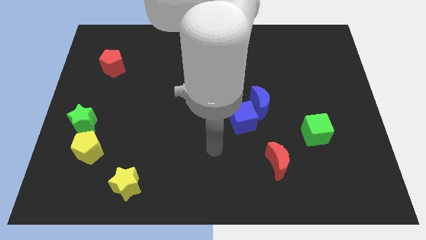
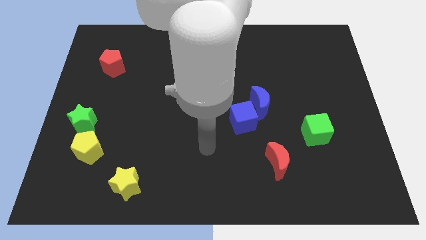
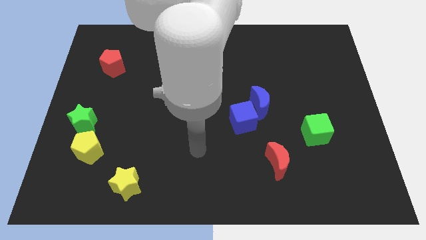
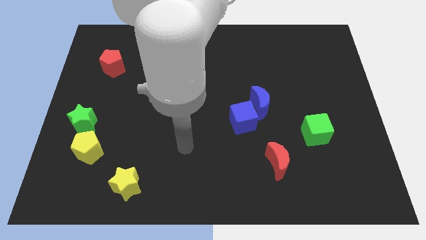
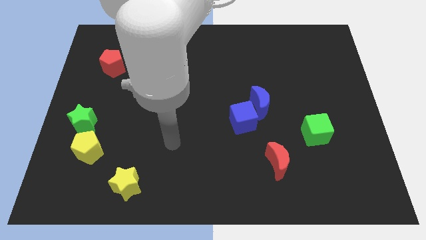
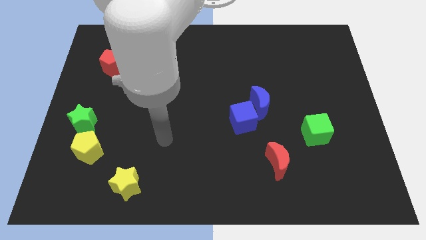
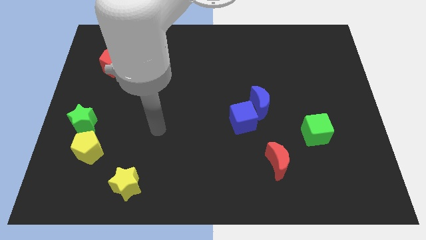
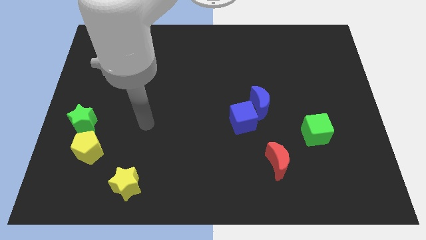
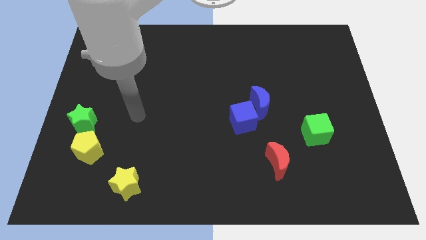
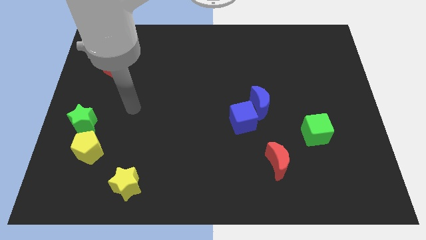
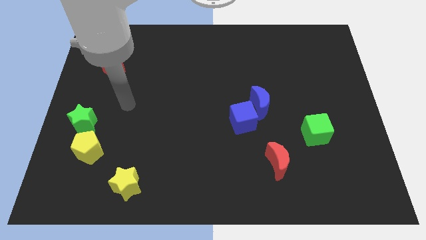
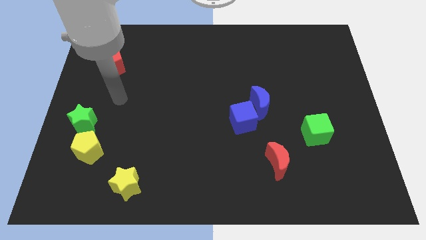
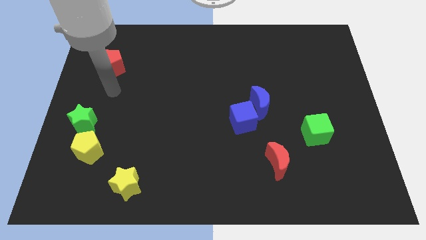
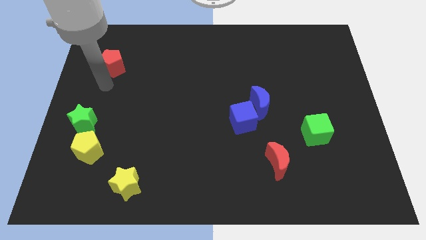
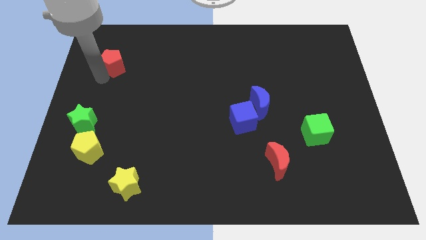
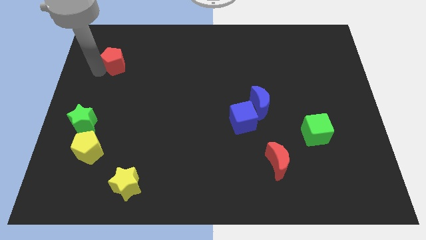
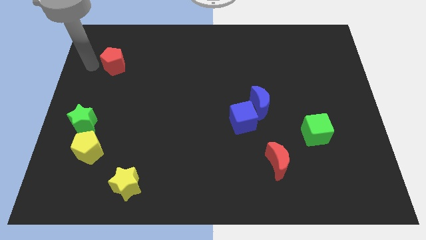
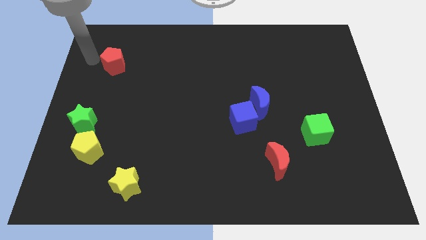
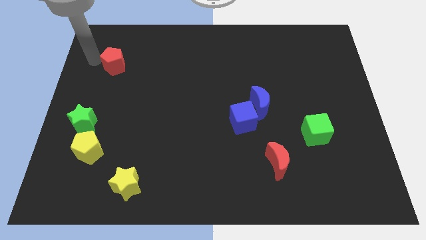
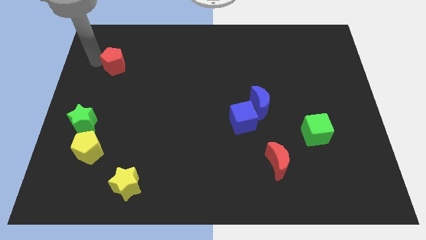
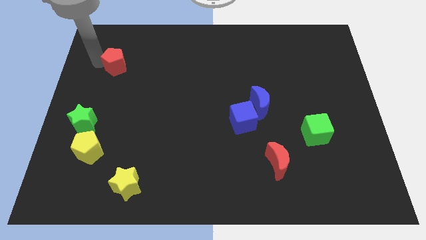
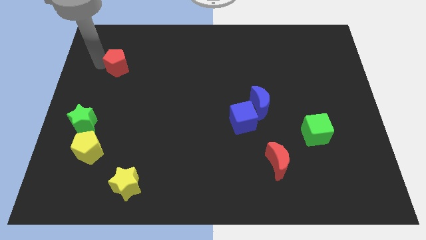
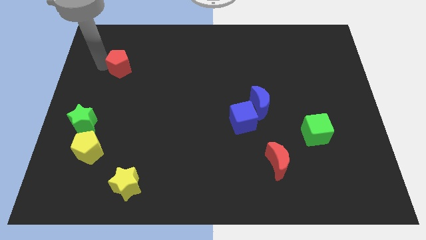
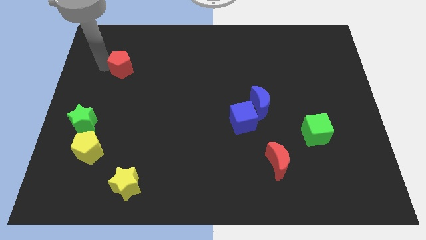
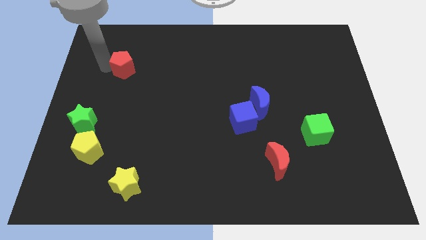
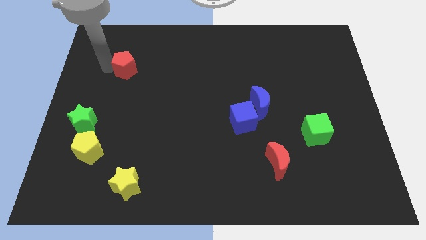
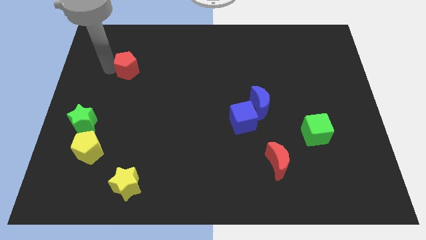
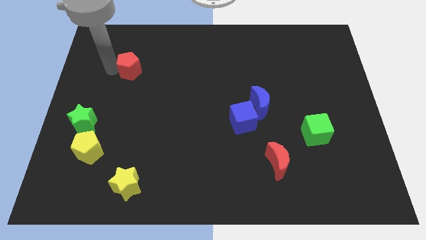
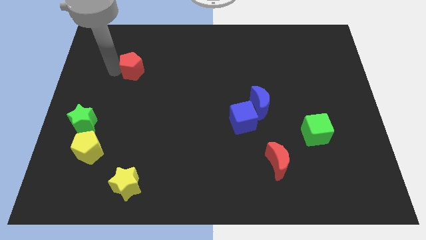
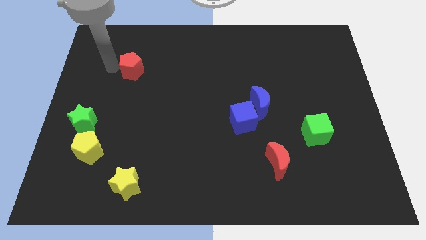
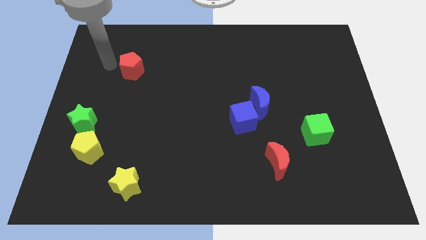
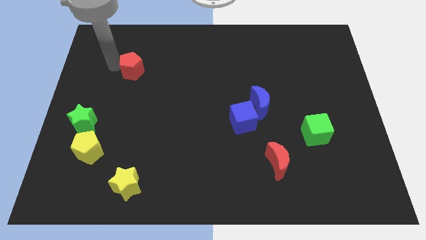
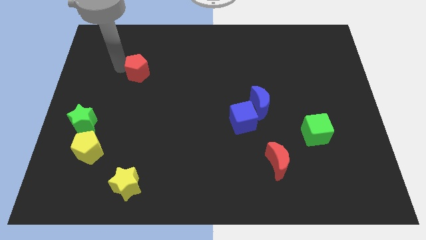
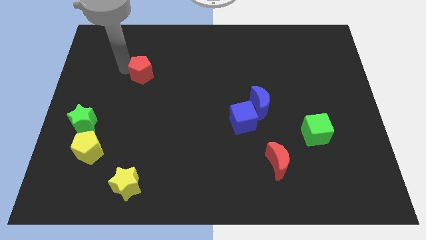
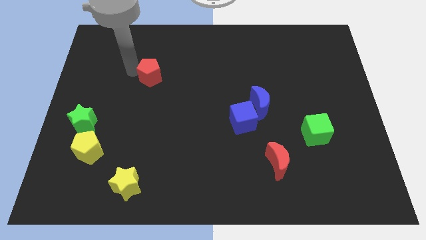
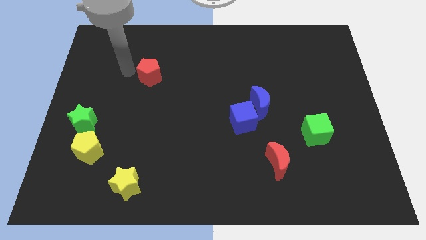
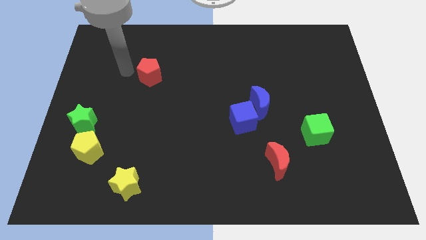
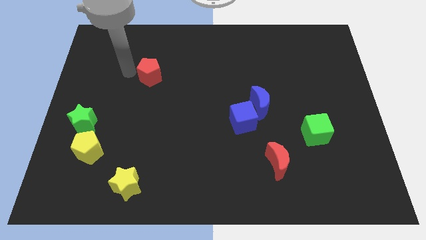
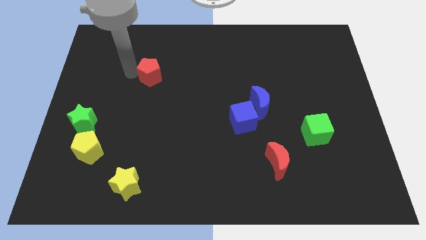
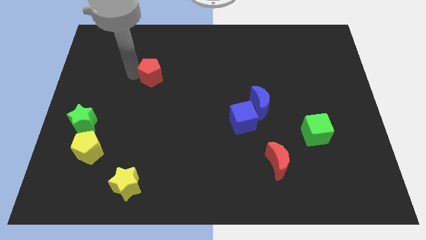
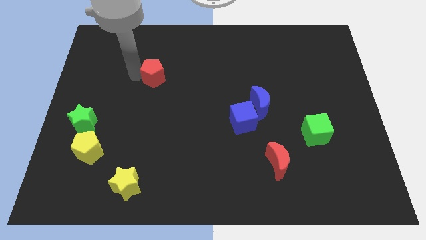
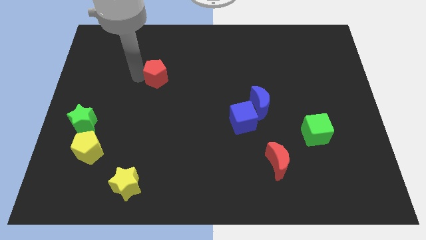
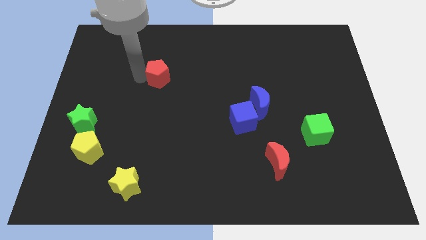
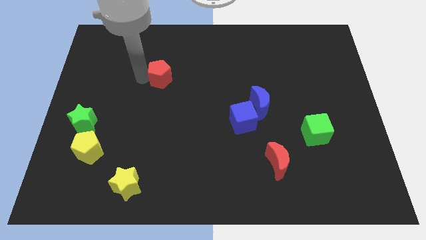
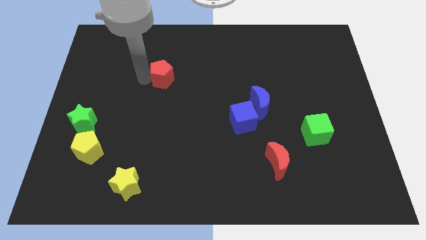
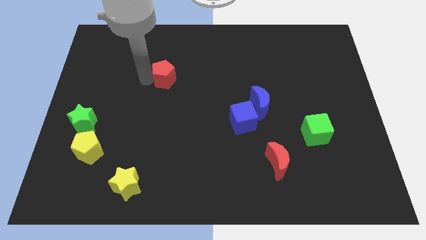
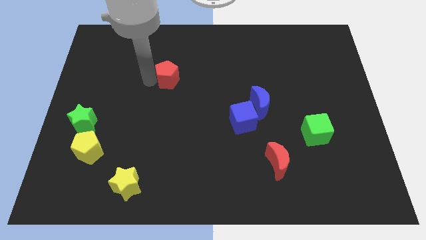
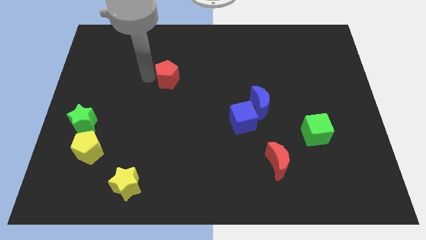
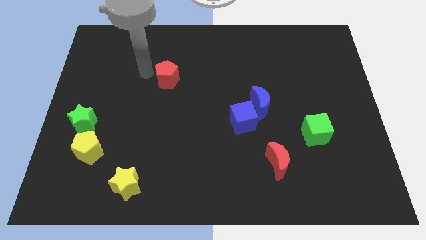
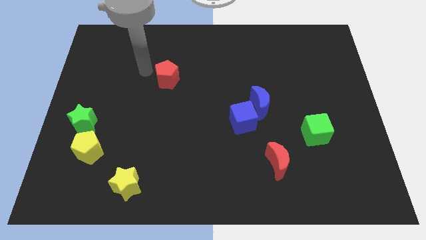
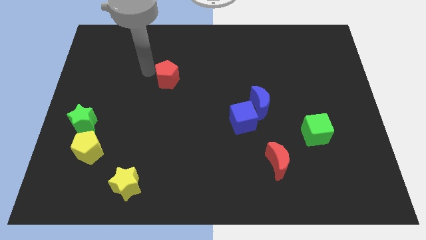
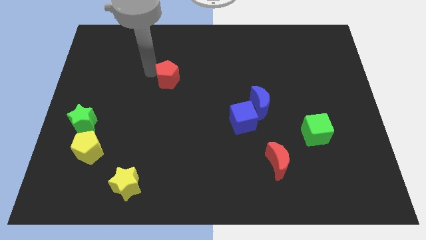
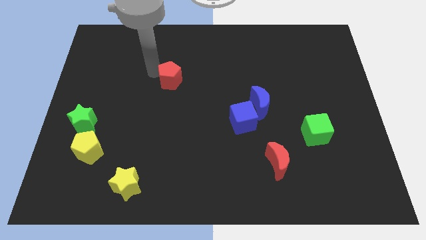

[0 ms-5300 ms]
slide the red pentagon to the center of the board

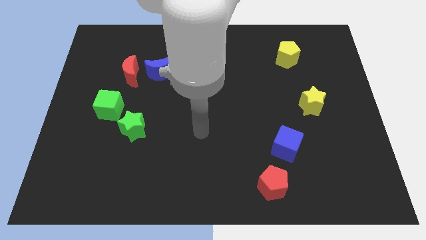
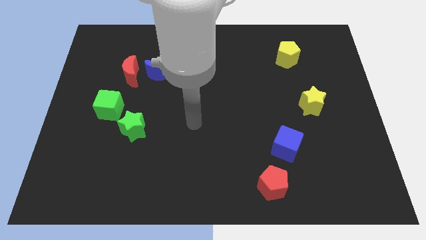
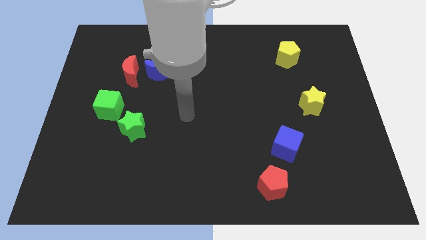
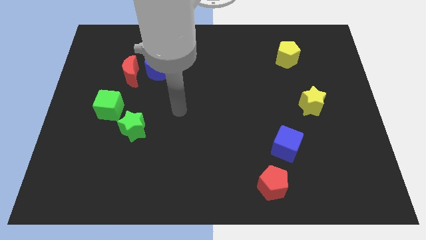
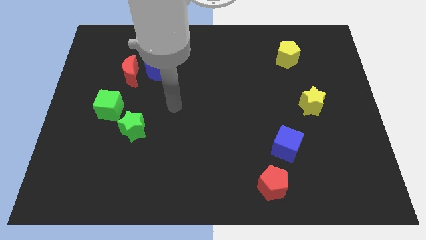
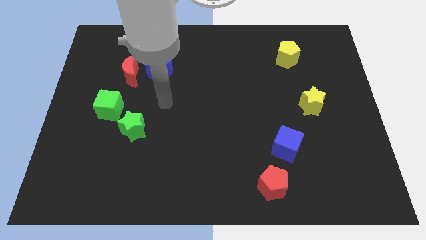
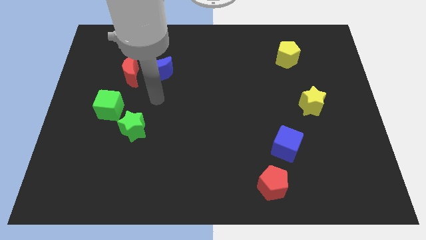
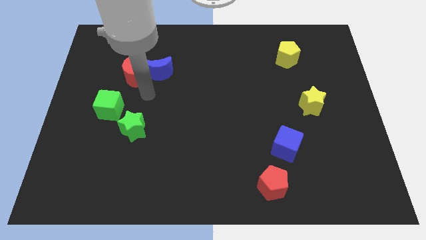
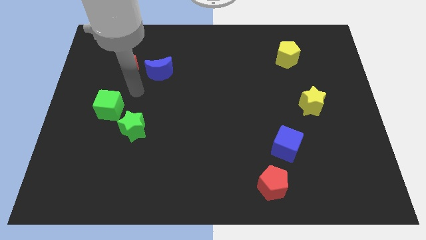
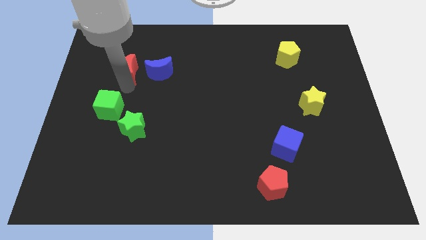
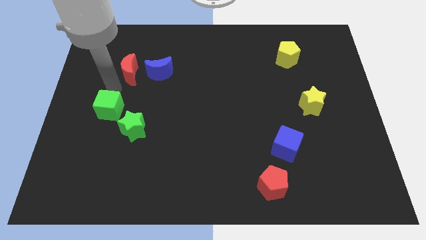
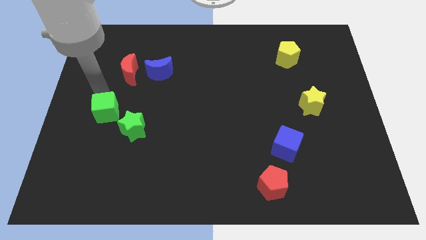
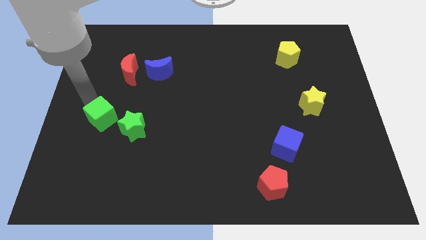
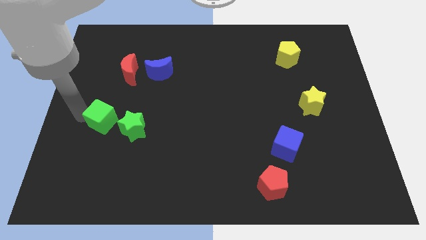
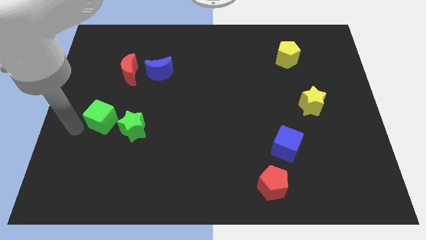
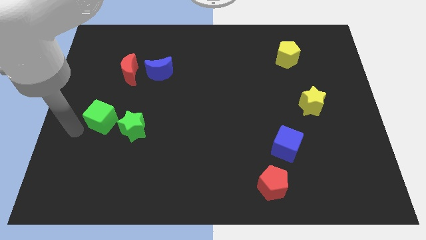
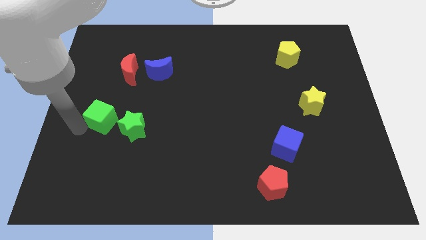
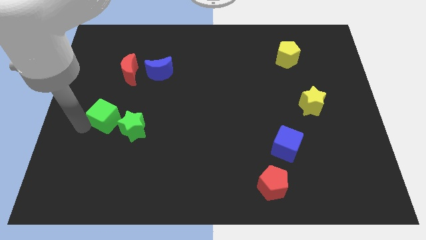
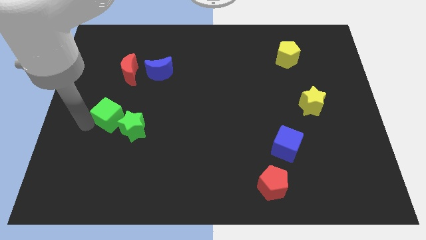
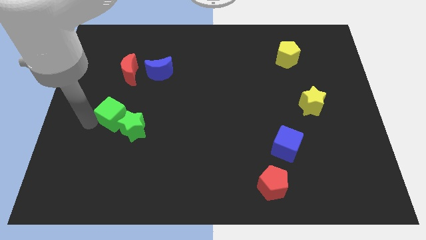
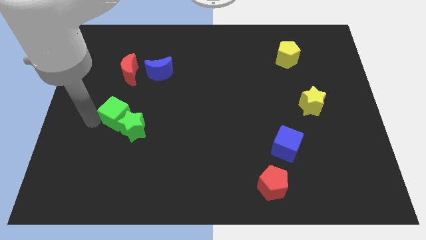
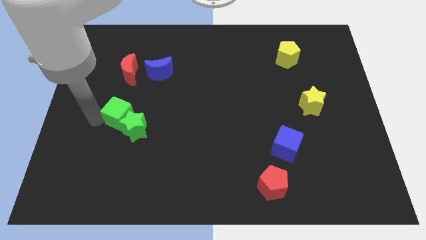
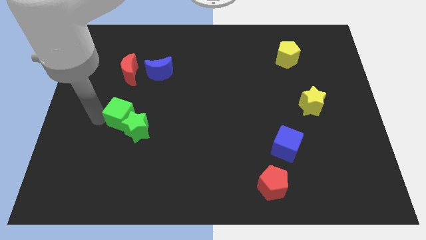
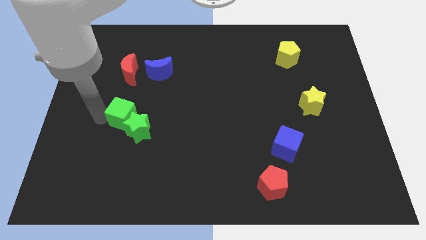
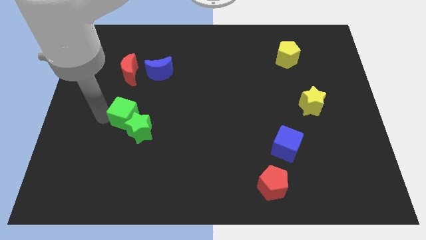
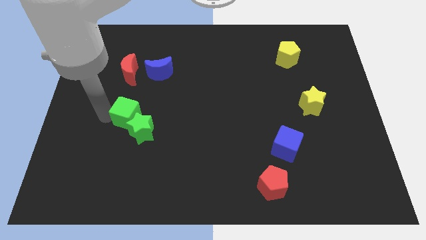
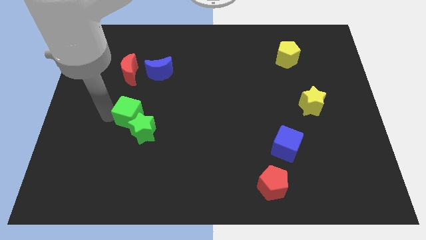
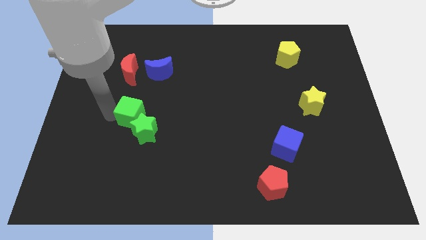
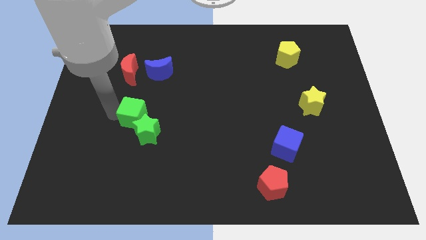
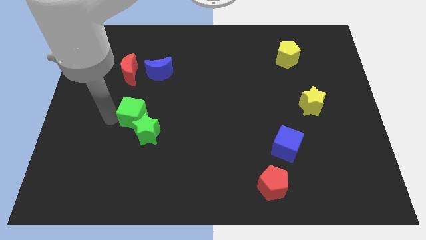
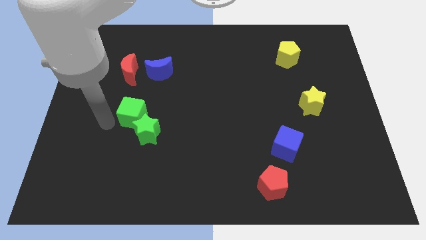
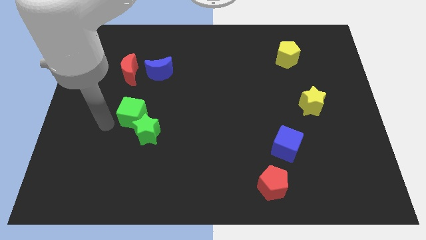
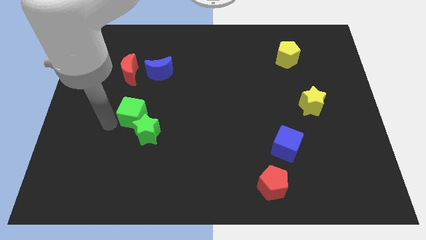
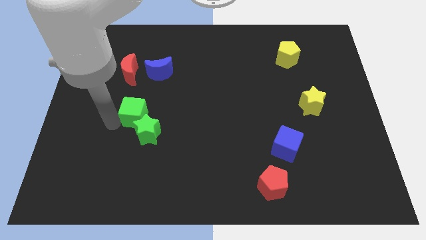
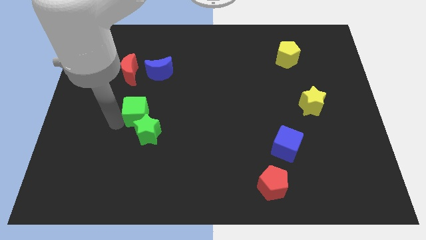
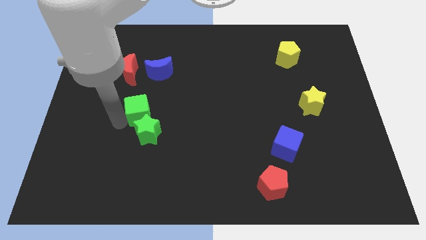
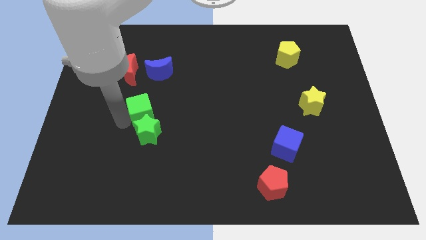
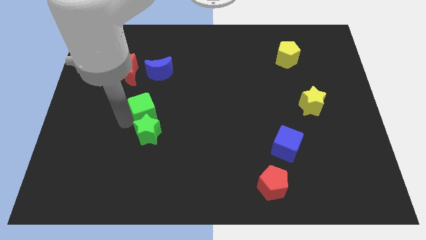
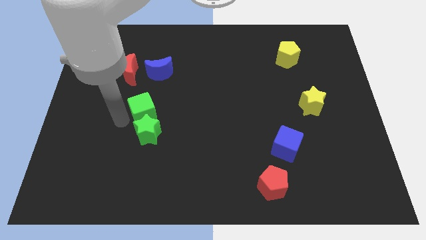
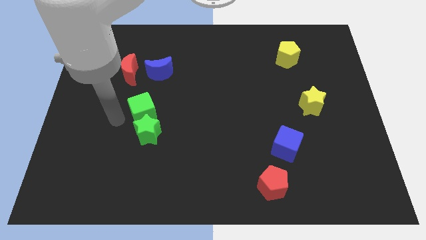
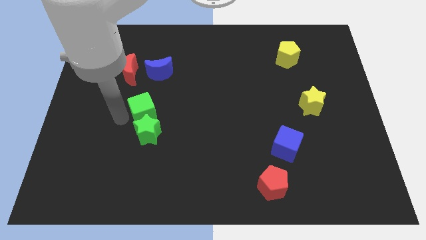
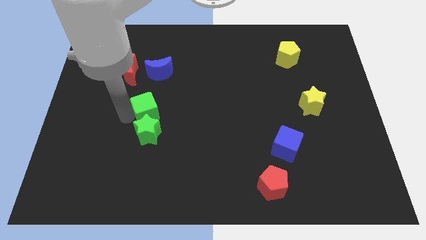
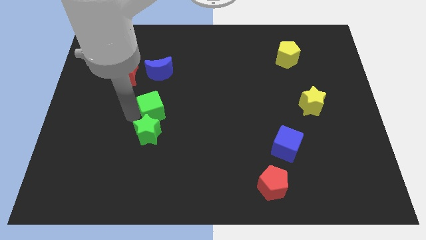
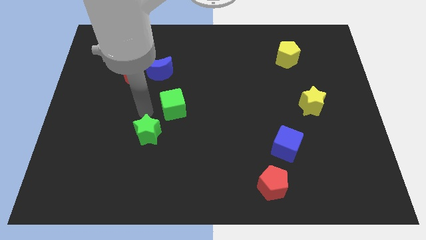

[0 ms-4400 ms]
slide the green cube to the center
